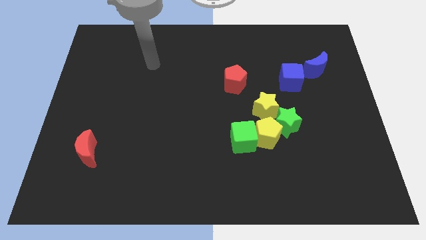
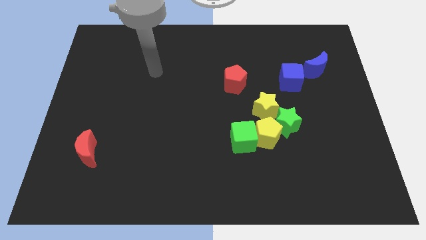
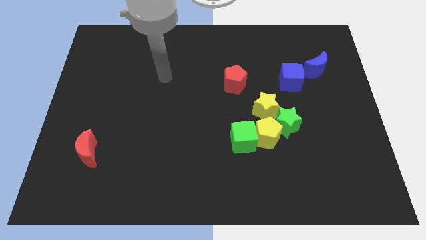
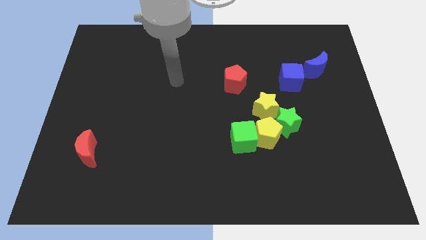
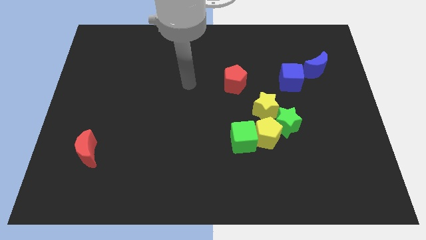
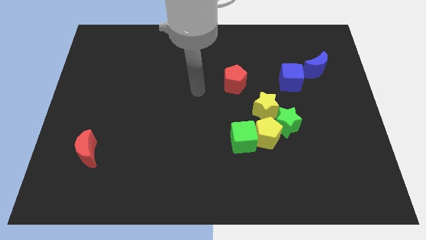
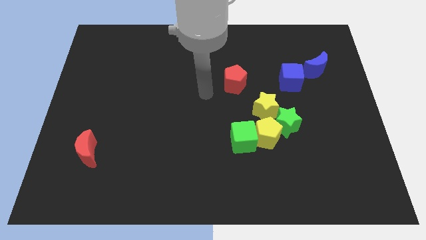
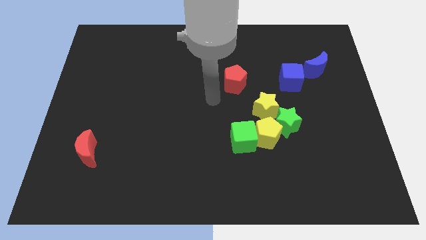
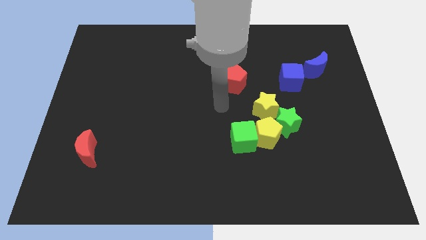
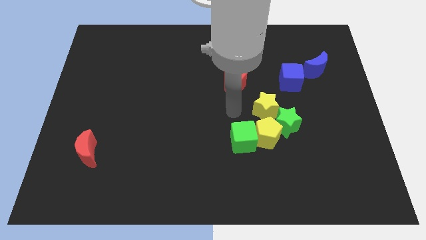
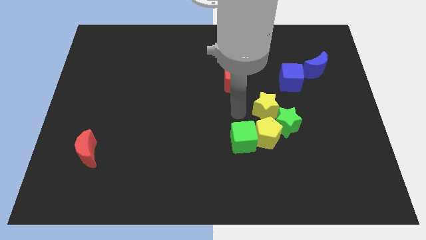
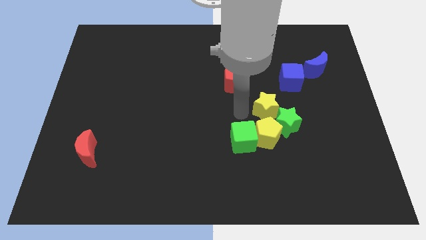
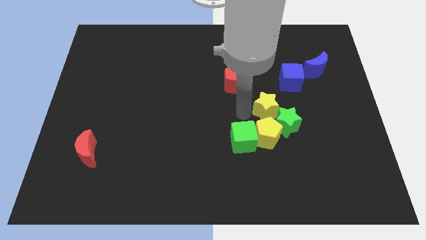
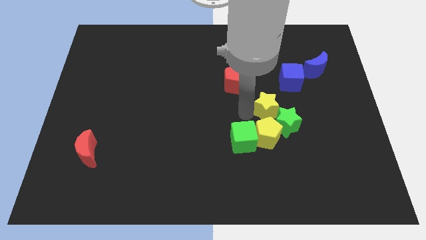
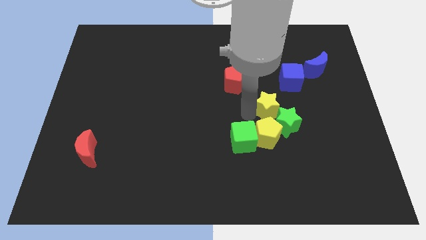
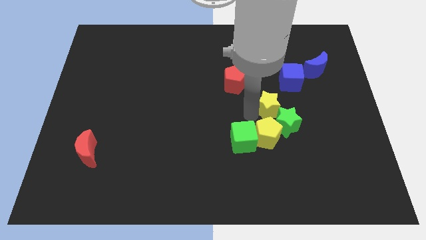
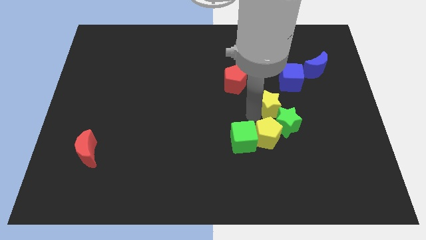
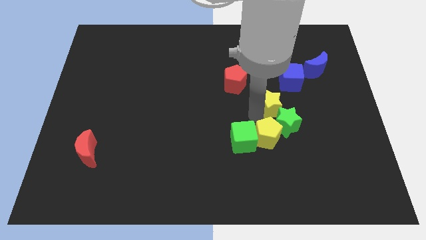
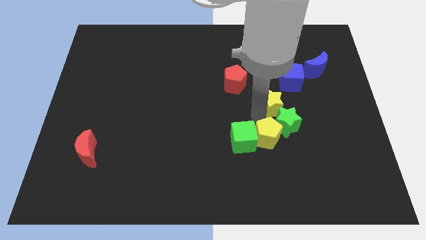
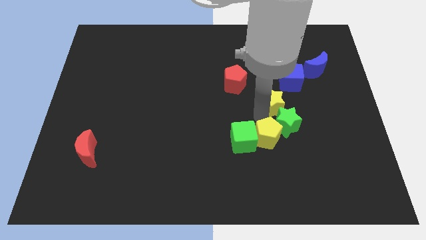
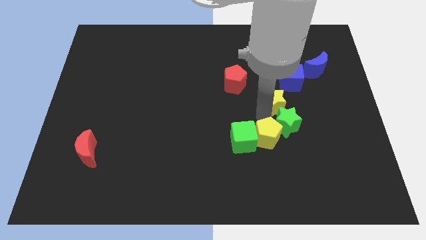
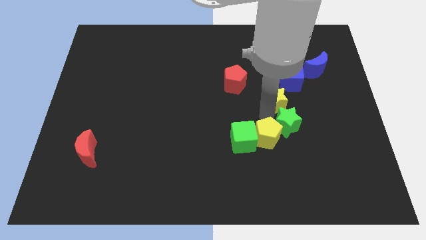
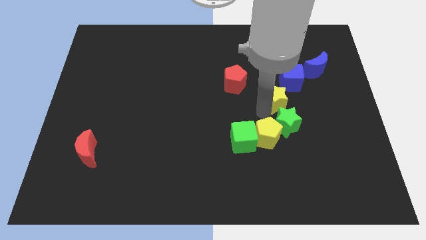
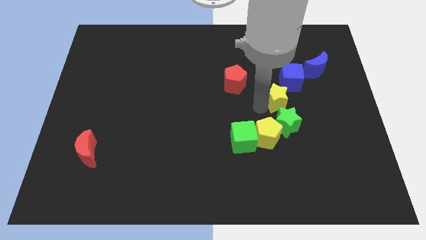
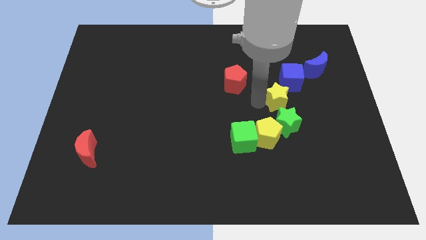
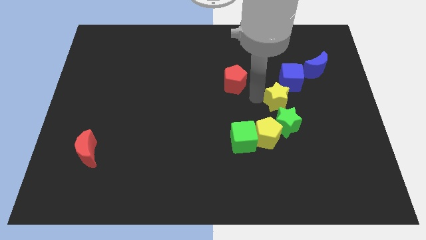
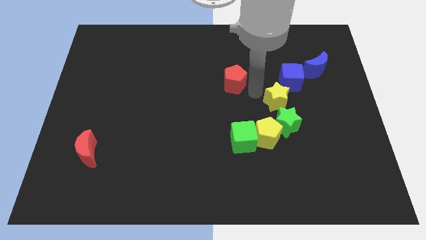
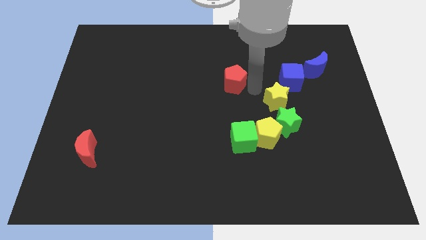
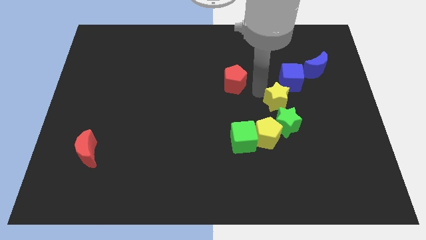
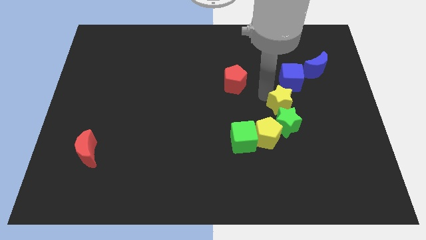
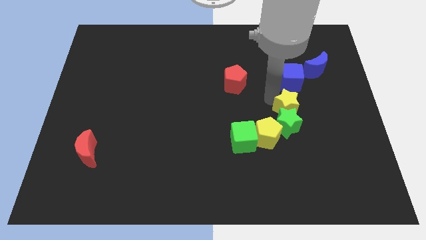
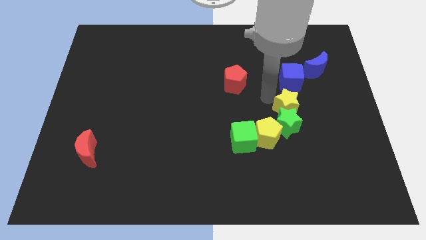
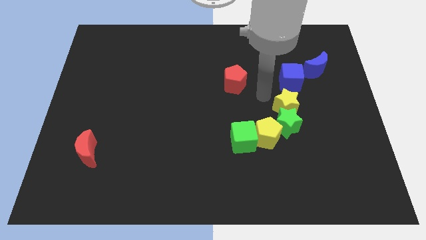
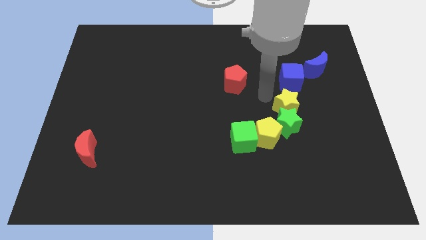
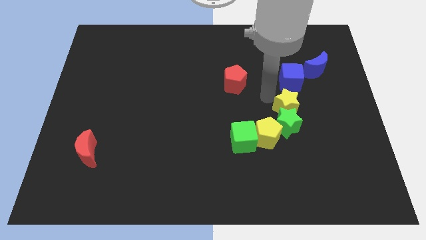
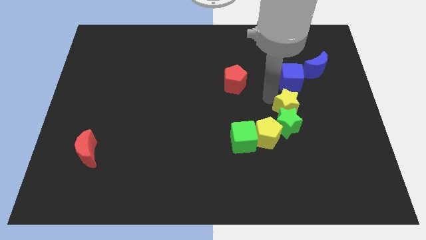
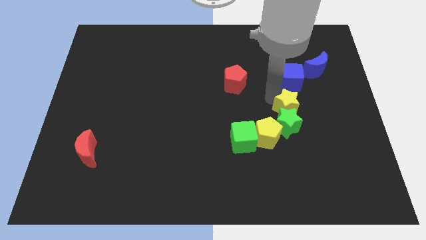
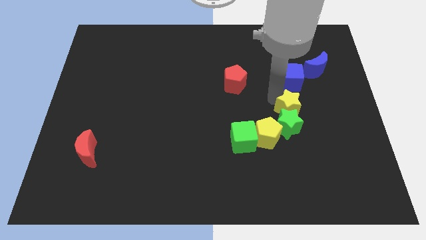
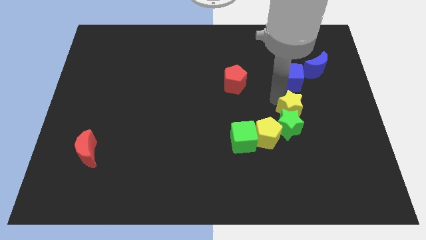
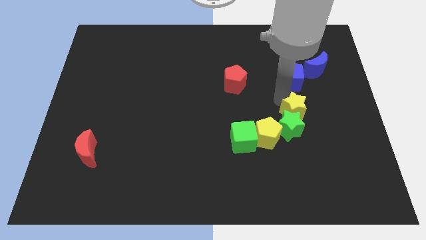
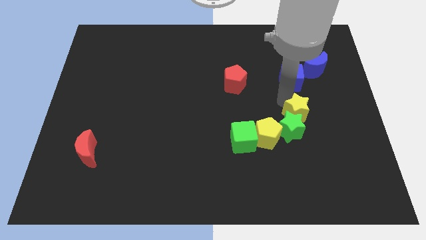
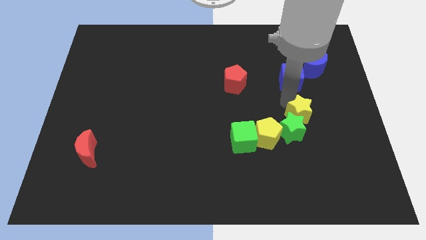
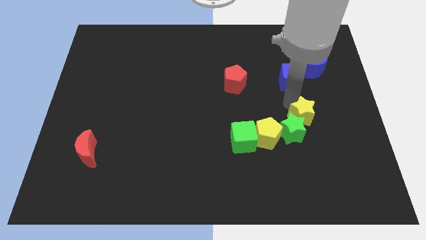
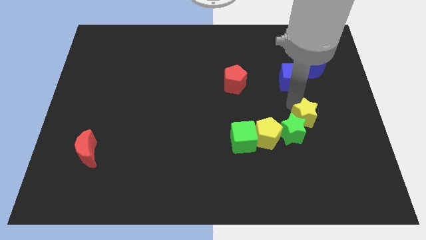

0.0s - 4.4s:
slightly slide the yellow star downwards and then right

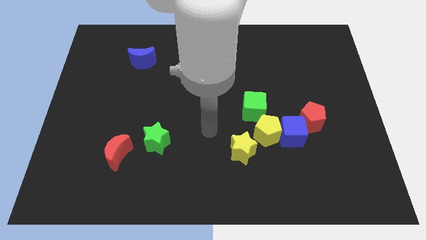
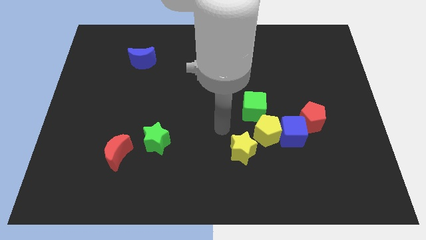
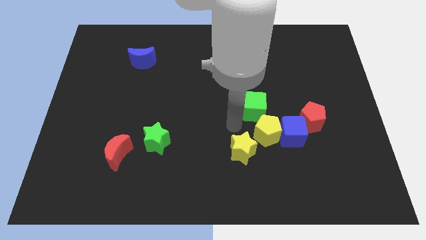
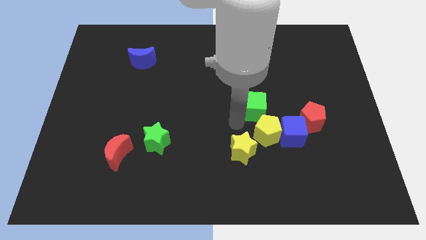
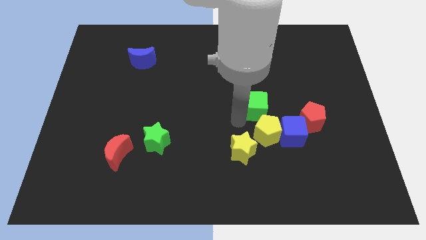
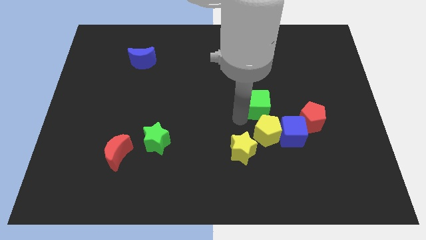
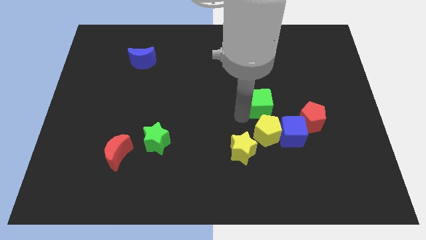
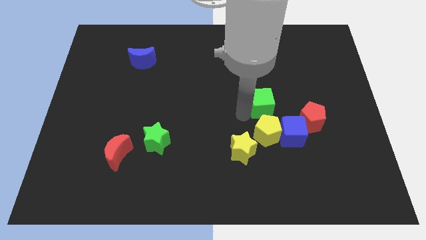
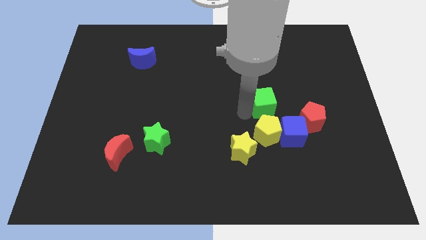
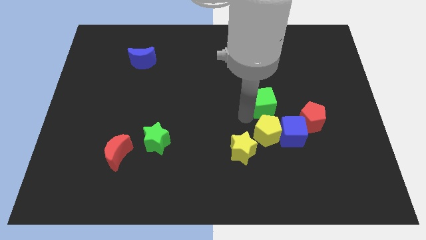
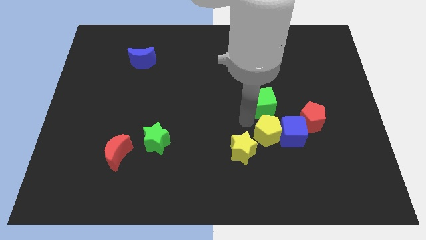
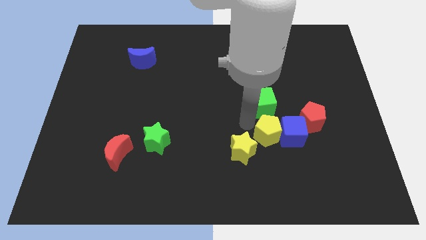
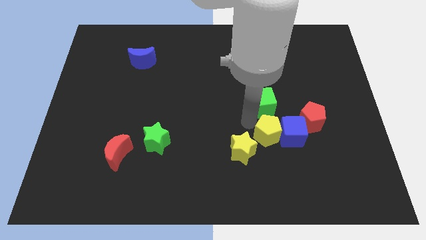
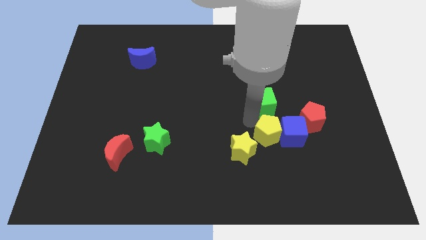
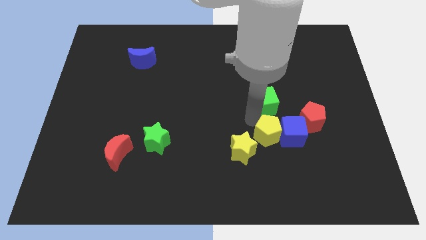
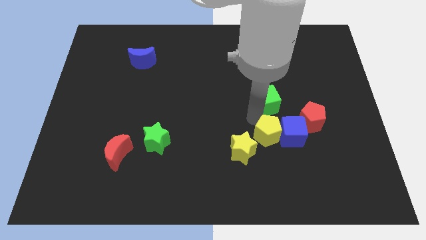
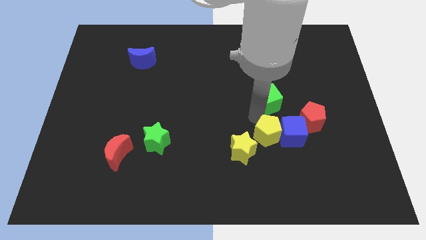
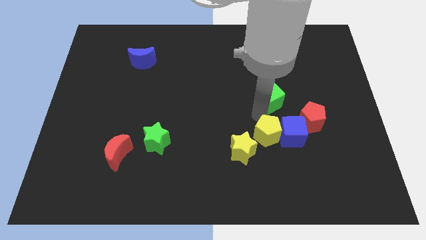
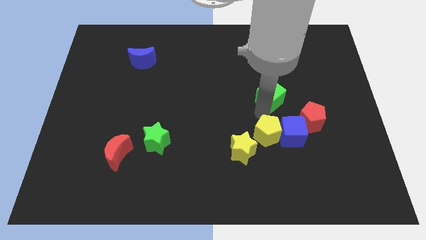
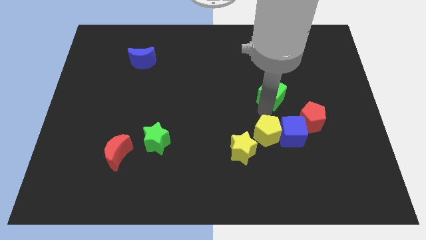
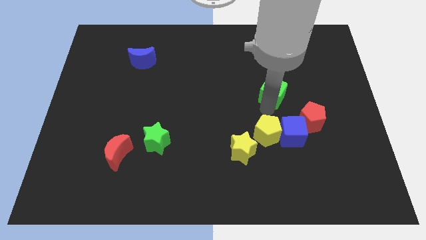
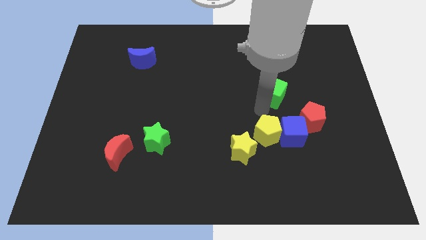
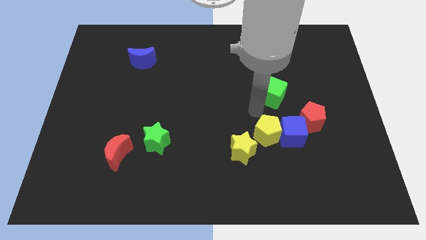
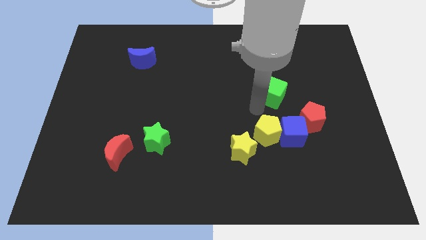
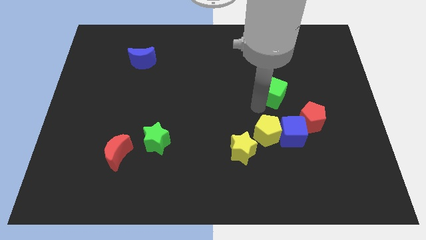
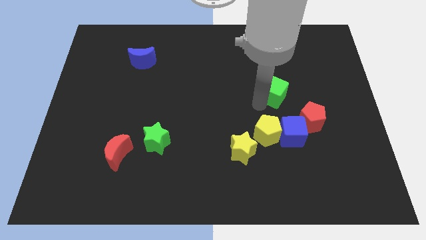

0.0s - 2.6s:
slide the green cube a little bit diagonally up and to the right

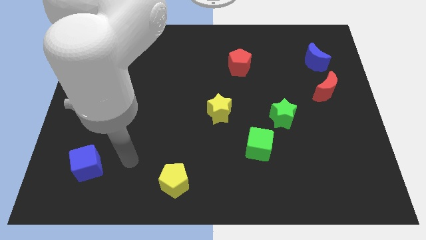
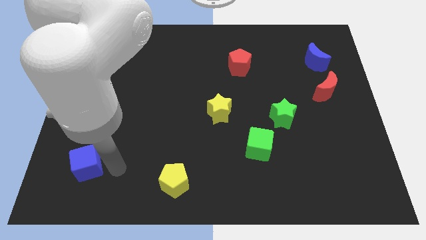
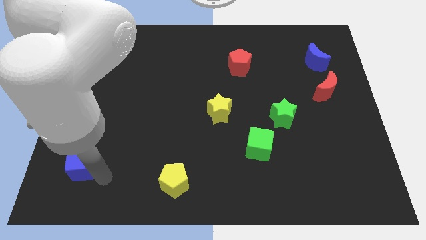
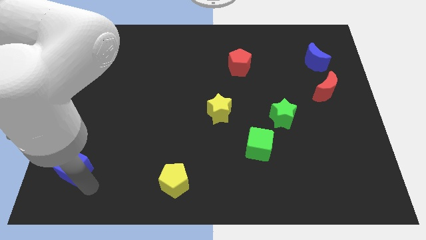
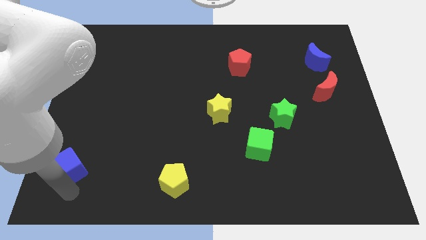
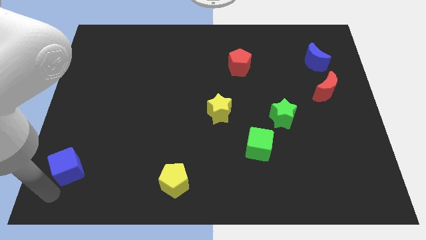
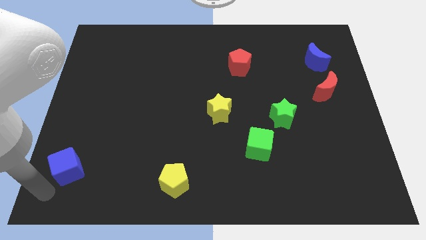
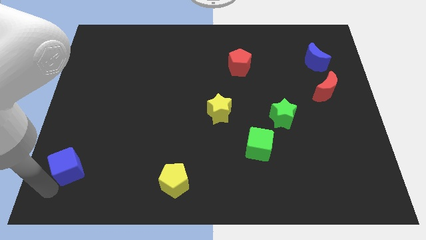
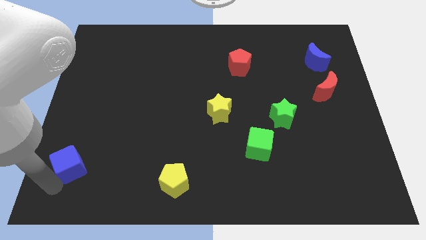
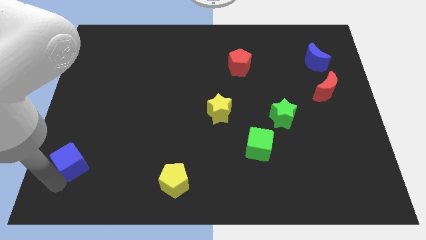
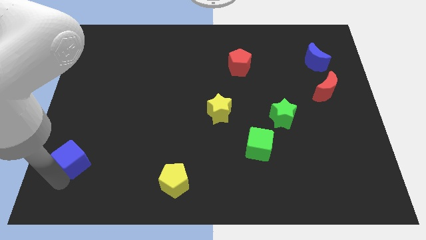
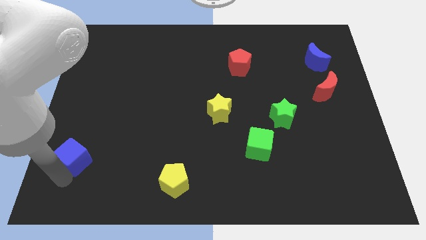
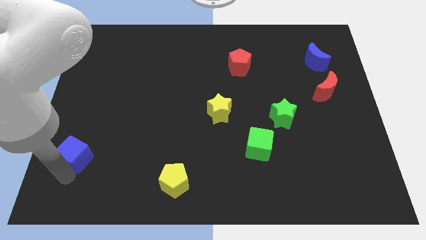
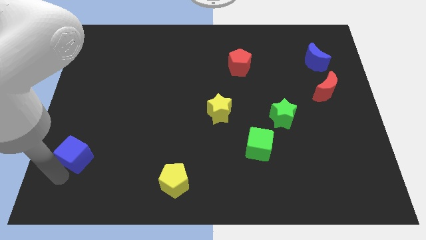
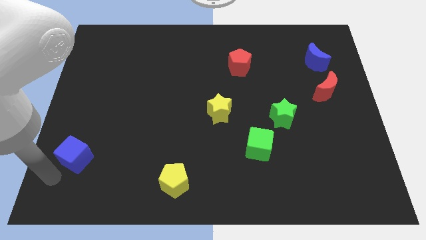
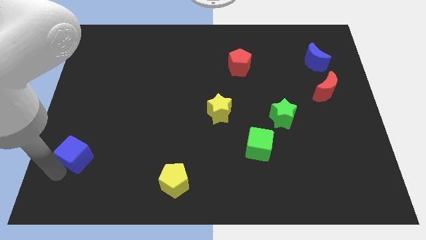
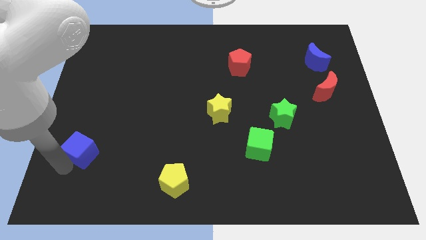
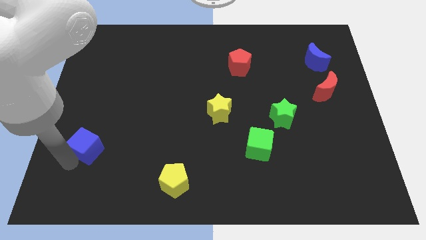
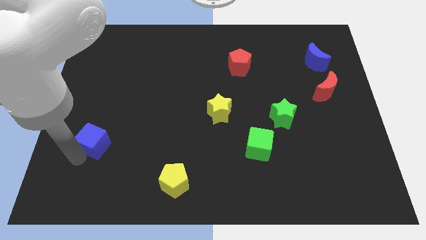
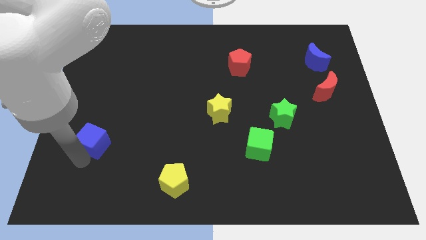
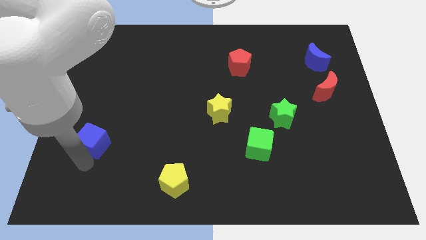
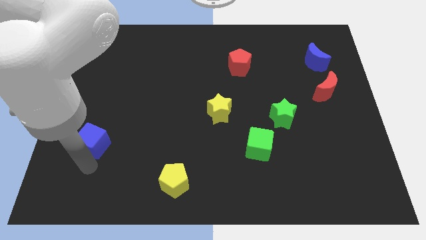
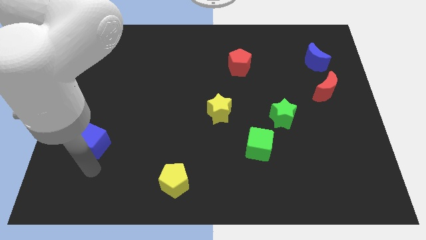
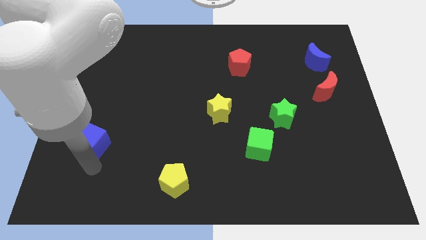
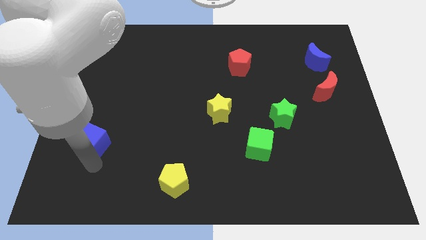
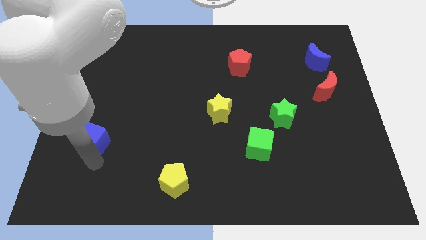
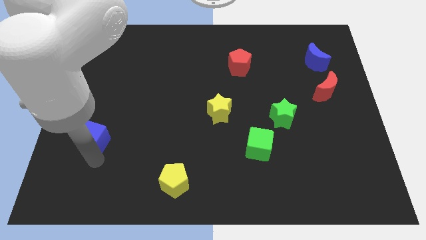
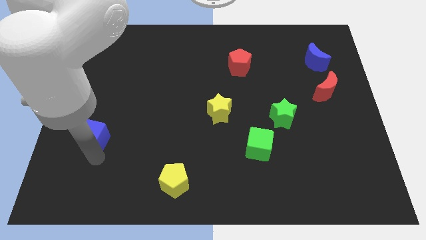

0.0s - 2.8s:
slide the blue cube slightly upwards
